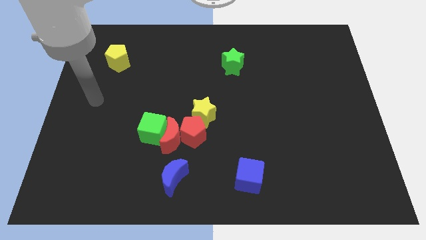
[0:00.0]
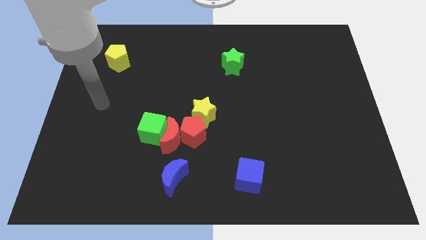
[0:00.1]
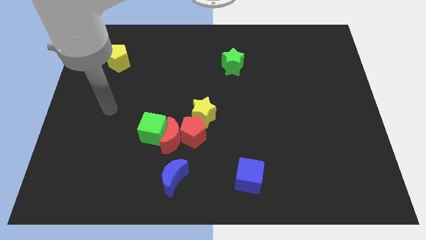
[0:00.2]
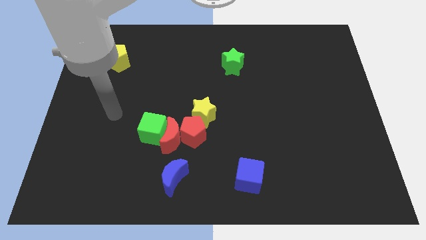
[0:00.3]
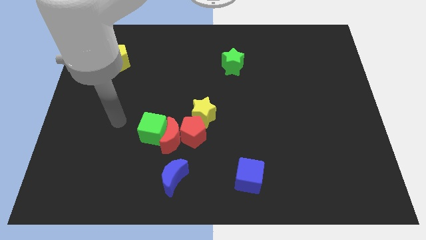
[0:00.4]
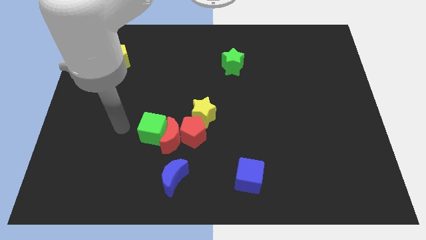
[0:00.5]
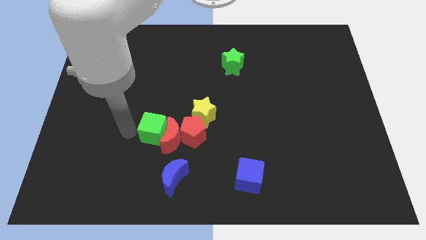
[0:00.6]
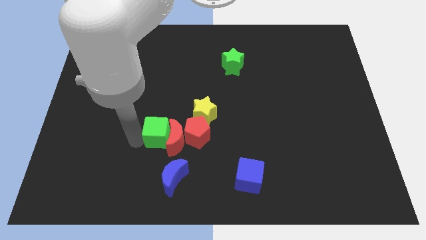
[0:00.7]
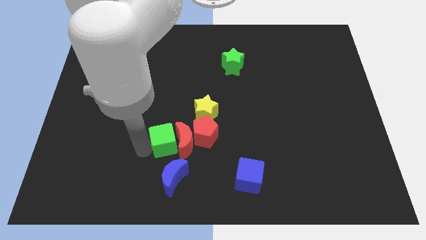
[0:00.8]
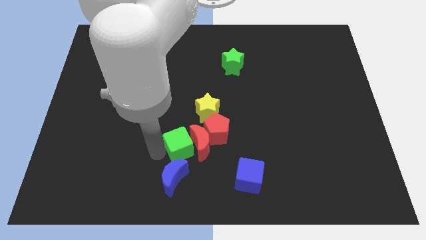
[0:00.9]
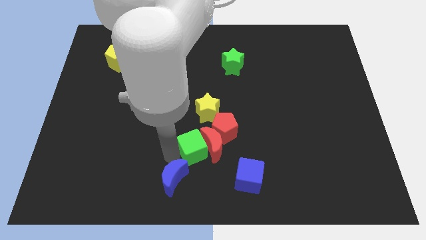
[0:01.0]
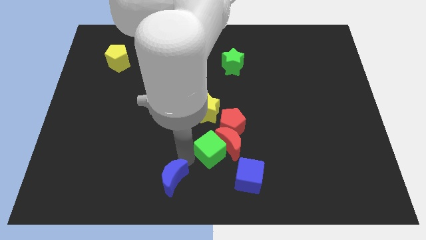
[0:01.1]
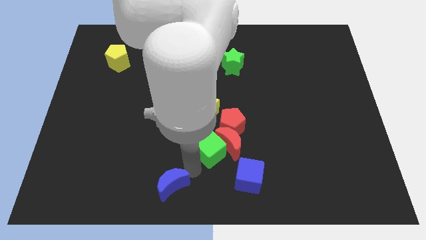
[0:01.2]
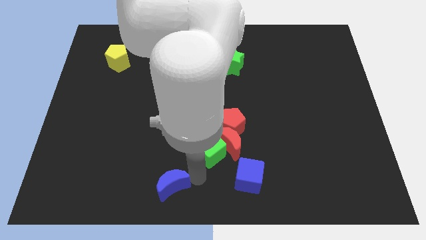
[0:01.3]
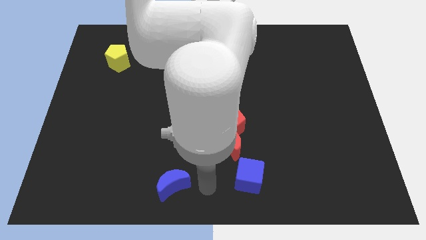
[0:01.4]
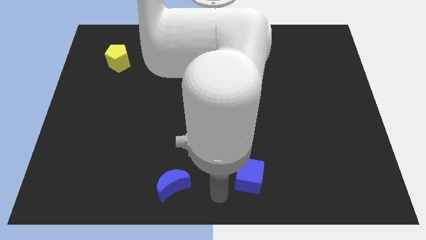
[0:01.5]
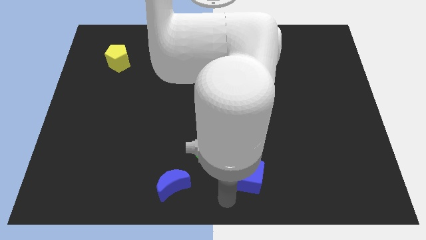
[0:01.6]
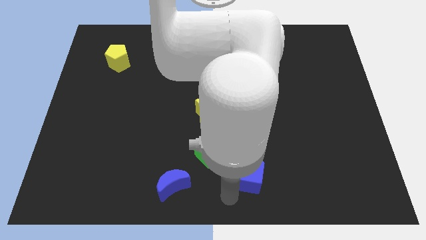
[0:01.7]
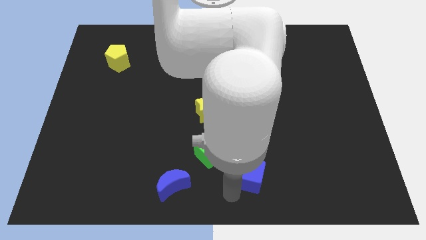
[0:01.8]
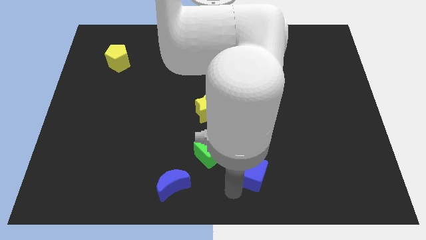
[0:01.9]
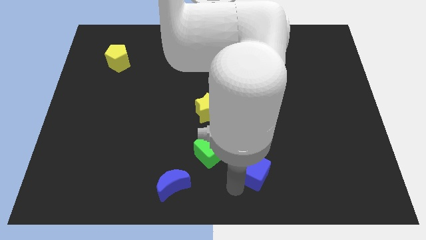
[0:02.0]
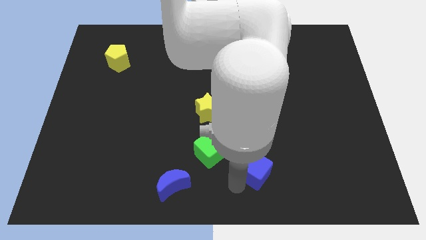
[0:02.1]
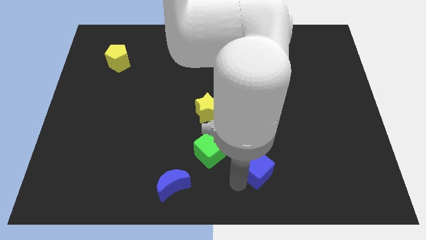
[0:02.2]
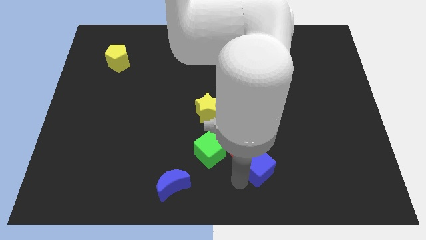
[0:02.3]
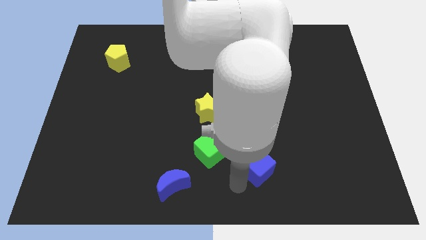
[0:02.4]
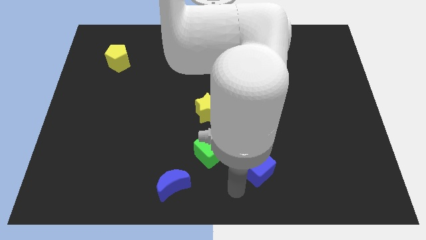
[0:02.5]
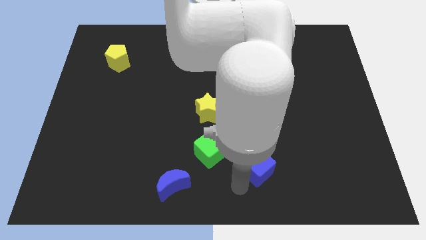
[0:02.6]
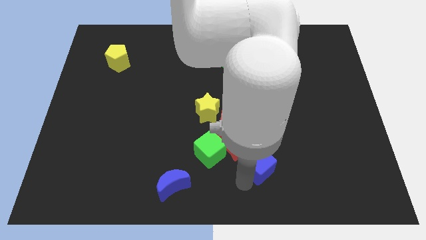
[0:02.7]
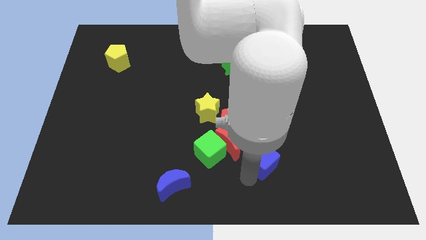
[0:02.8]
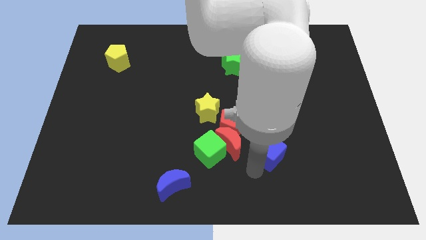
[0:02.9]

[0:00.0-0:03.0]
push the blue cube up and to the right diagonally somewhat

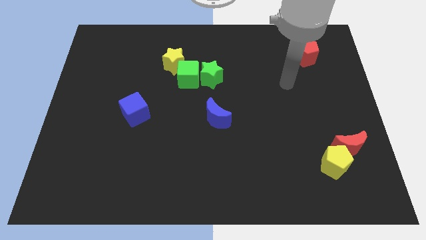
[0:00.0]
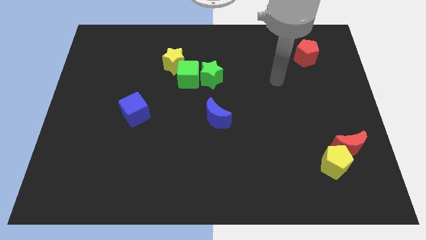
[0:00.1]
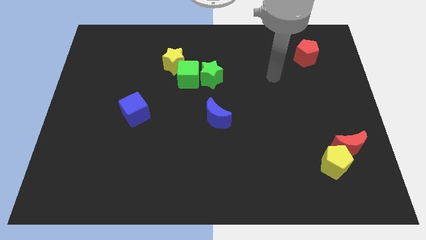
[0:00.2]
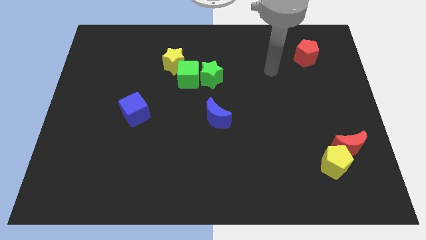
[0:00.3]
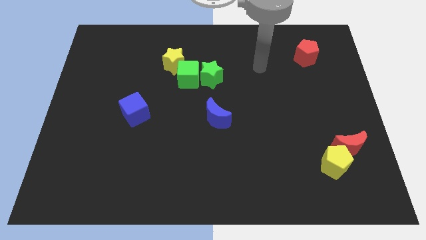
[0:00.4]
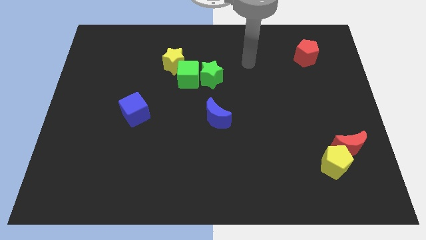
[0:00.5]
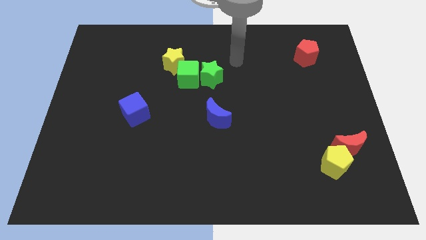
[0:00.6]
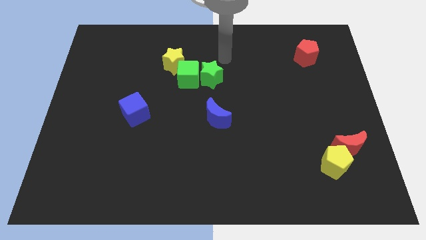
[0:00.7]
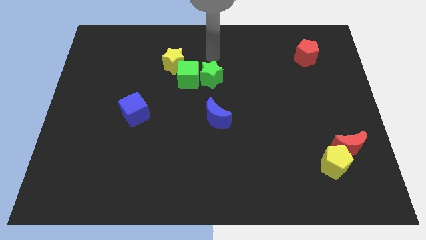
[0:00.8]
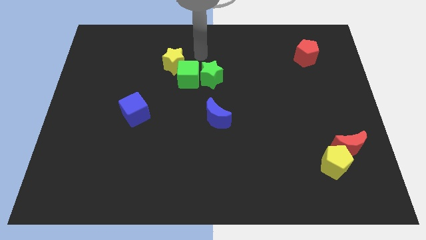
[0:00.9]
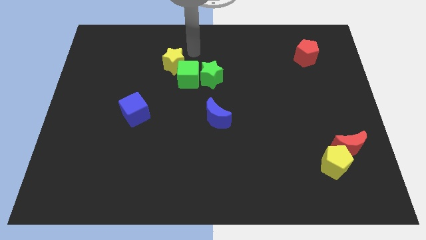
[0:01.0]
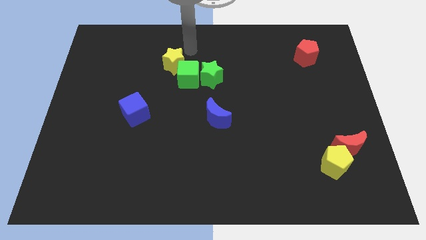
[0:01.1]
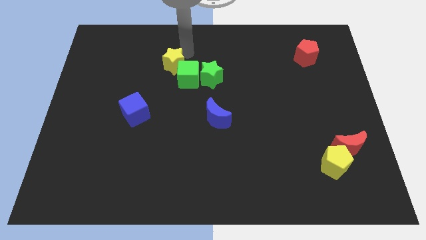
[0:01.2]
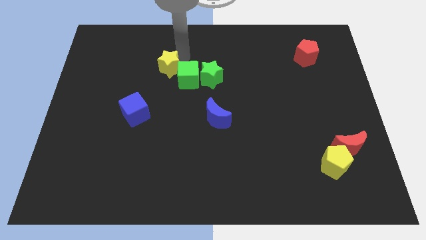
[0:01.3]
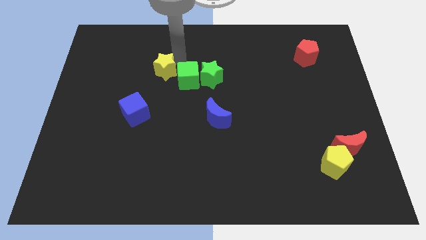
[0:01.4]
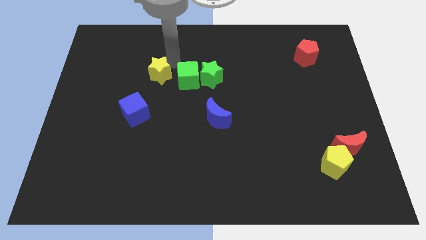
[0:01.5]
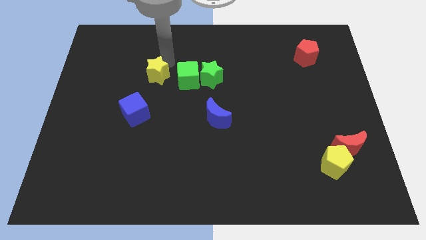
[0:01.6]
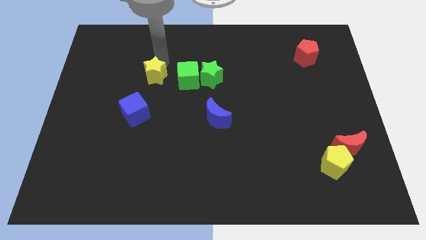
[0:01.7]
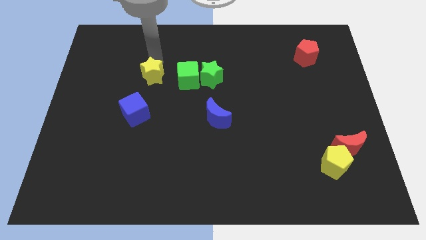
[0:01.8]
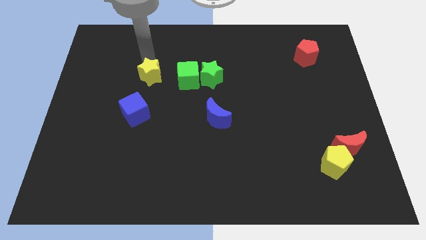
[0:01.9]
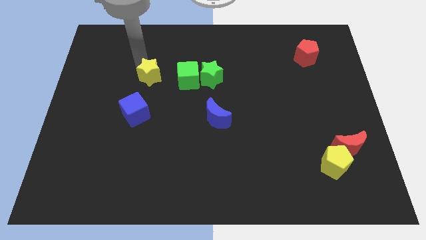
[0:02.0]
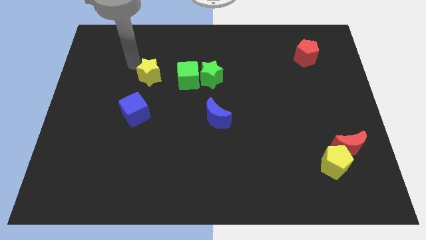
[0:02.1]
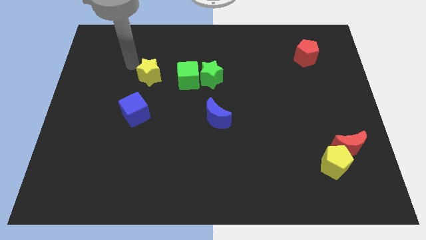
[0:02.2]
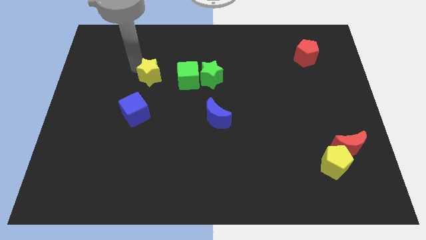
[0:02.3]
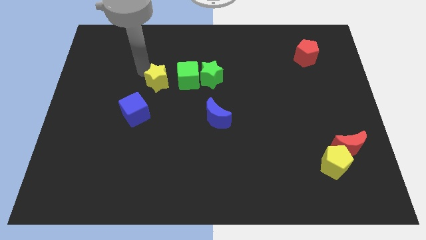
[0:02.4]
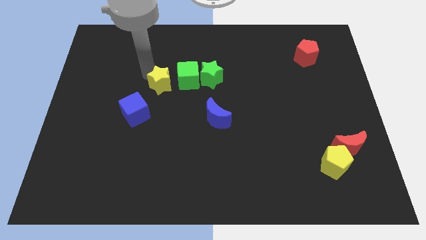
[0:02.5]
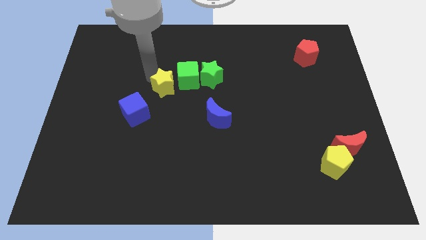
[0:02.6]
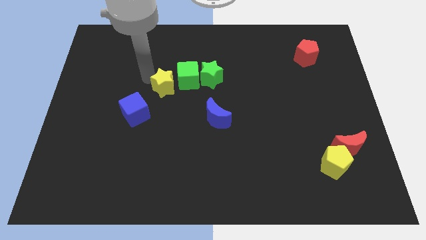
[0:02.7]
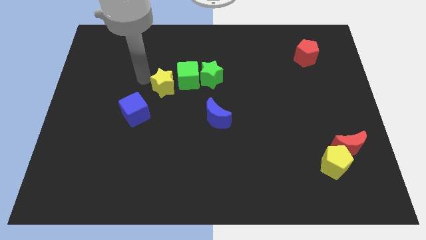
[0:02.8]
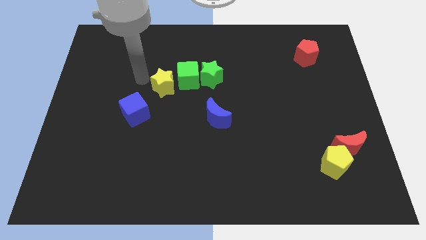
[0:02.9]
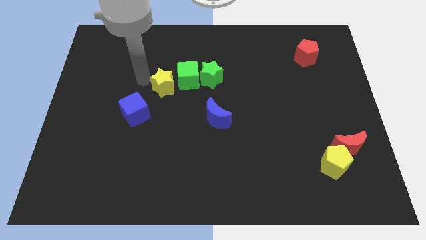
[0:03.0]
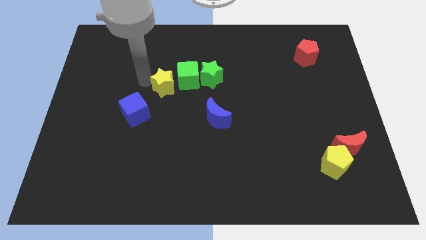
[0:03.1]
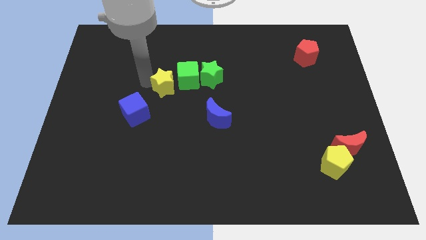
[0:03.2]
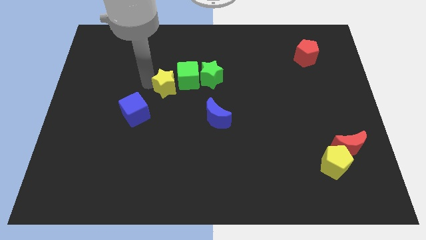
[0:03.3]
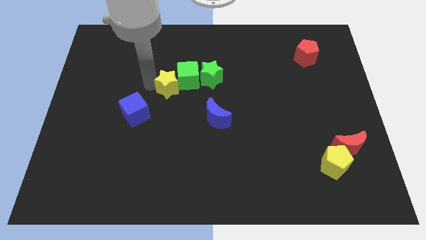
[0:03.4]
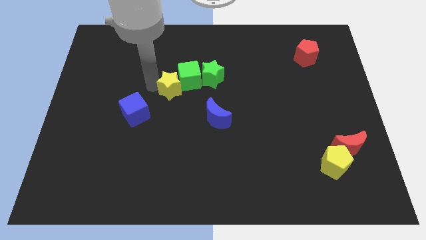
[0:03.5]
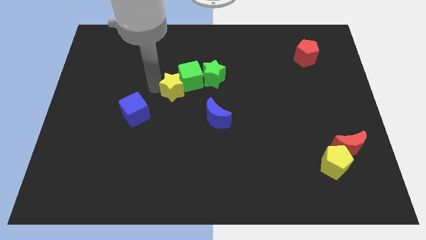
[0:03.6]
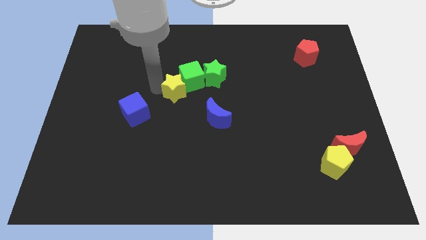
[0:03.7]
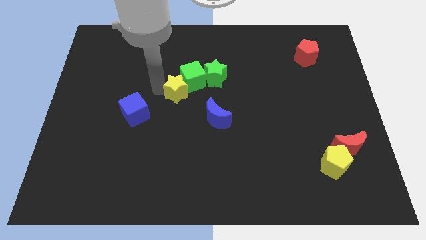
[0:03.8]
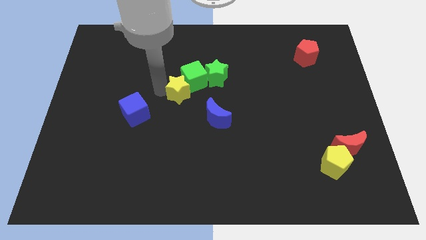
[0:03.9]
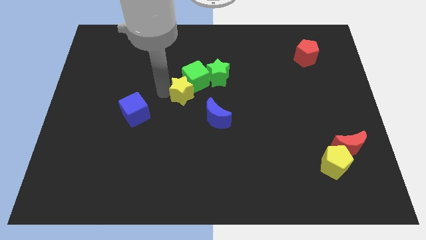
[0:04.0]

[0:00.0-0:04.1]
slide the yellow star down and then to the right a little

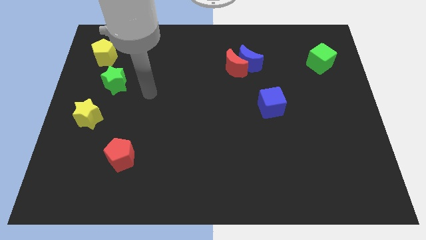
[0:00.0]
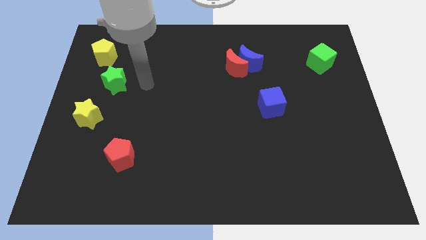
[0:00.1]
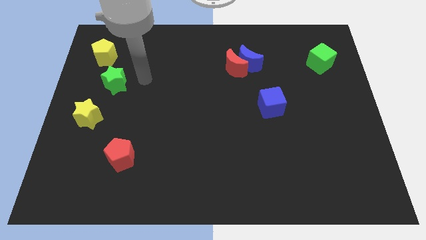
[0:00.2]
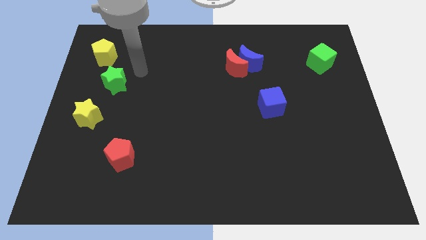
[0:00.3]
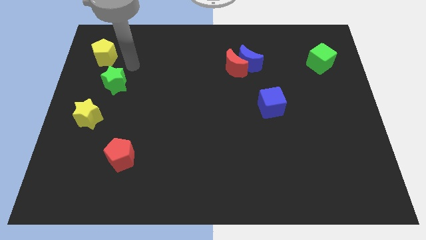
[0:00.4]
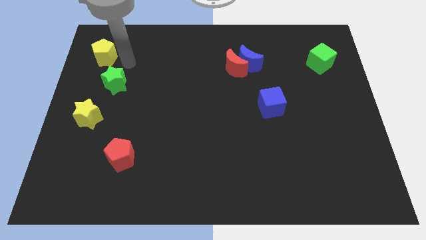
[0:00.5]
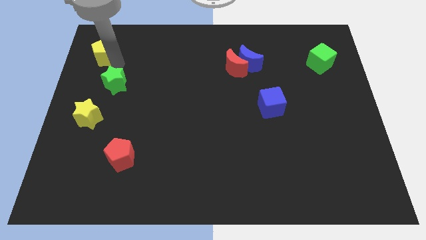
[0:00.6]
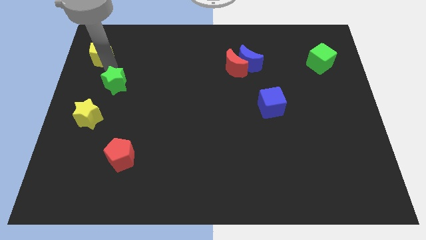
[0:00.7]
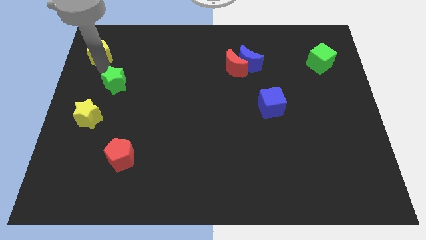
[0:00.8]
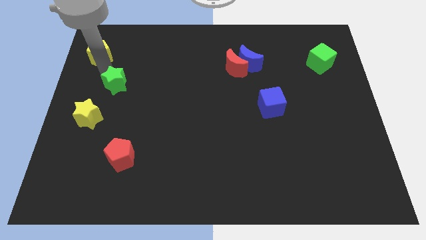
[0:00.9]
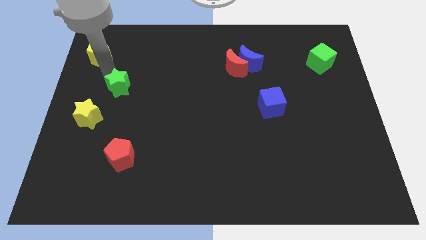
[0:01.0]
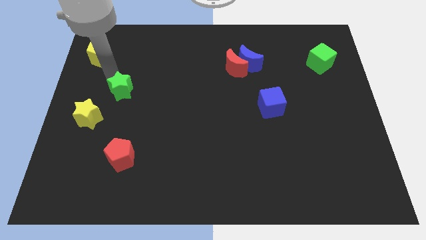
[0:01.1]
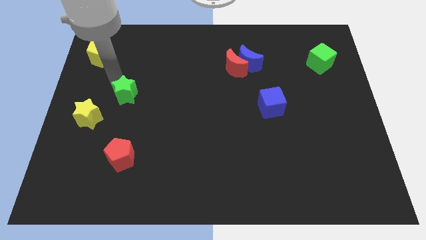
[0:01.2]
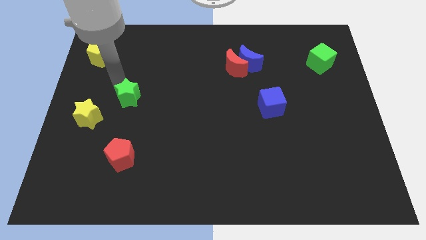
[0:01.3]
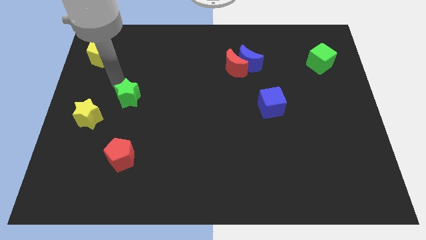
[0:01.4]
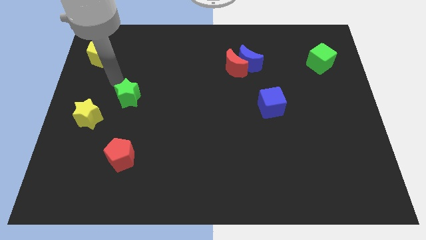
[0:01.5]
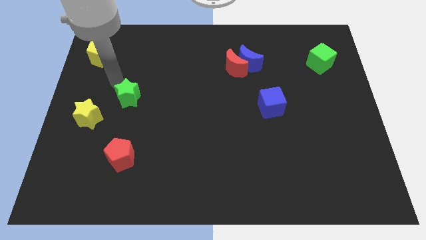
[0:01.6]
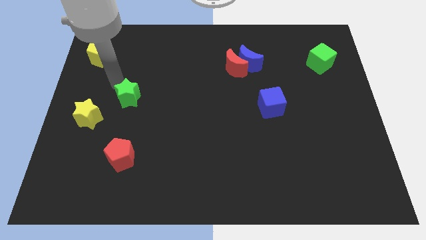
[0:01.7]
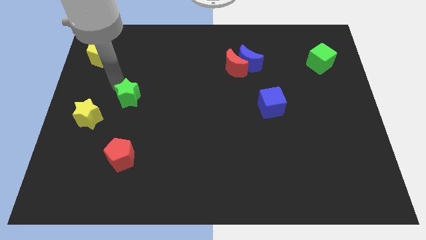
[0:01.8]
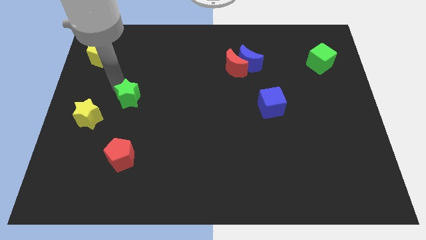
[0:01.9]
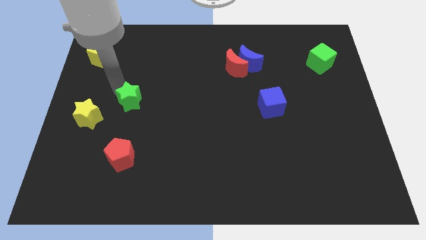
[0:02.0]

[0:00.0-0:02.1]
slightly slide the green star down and then right
